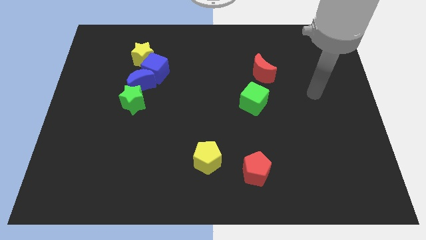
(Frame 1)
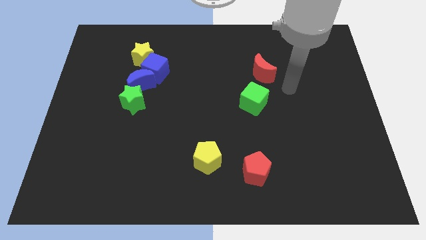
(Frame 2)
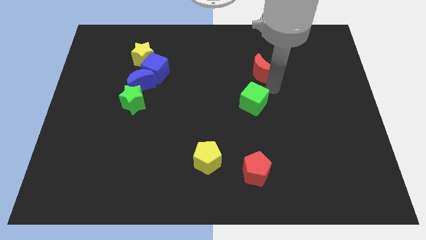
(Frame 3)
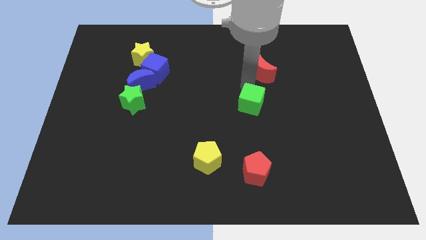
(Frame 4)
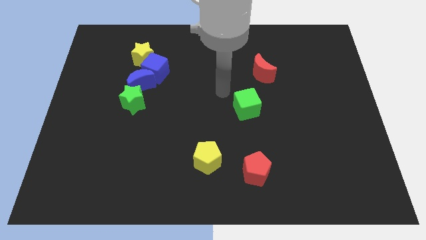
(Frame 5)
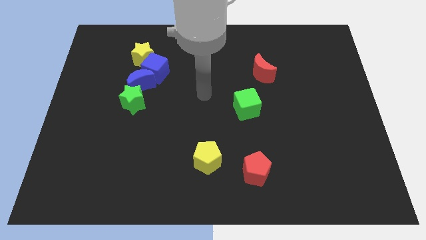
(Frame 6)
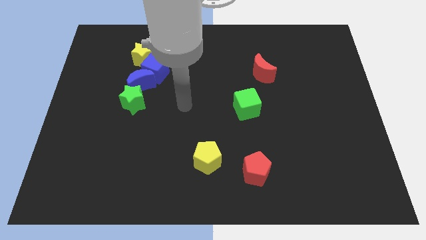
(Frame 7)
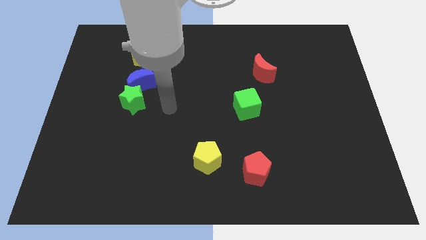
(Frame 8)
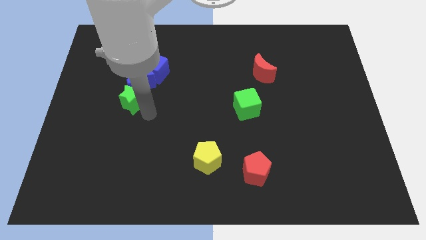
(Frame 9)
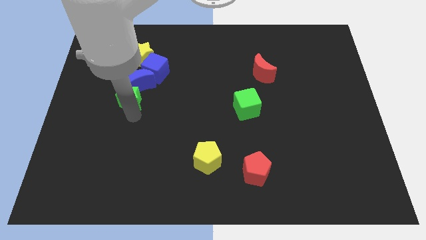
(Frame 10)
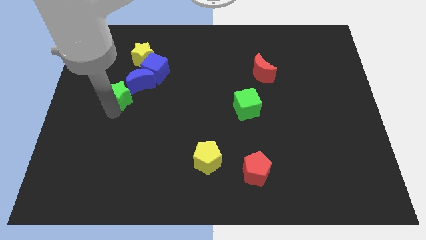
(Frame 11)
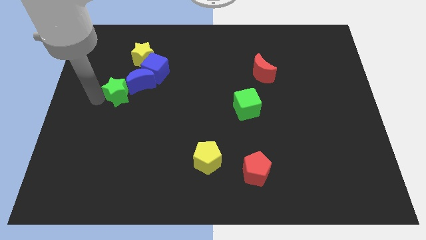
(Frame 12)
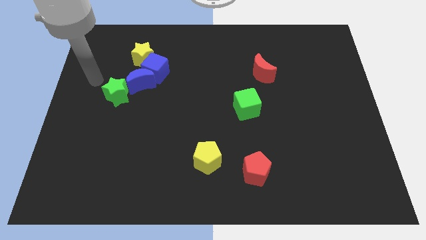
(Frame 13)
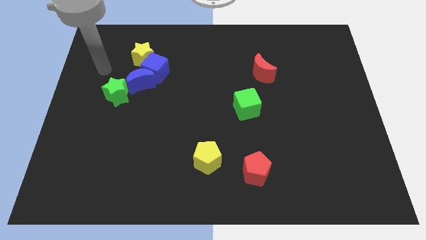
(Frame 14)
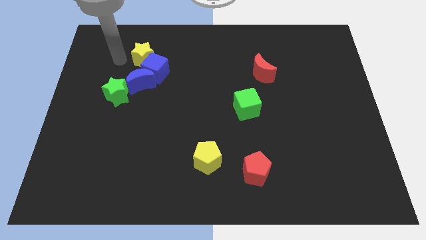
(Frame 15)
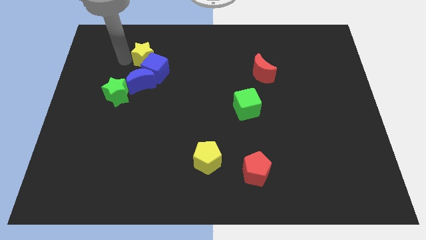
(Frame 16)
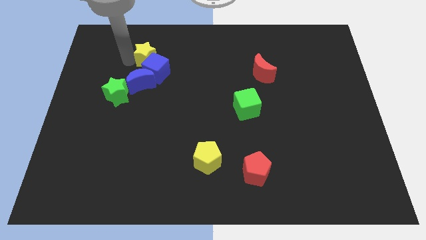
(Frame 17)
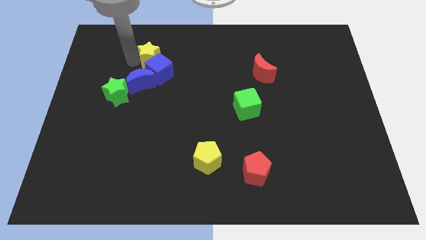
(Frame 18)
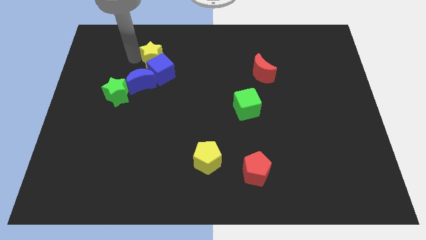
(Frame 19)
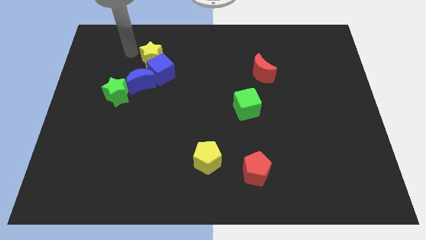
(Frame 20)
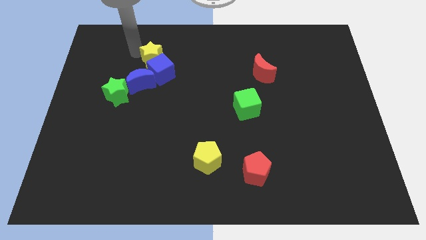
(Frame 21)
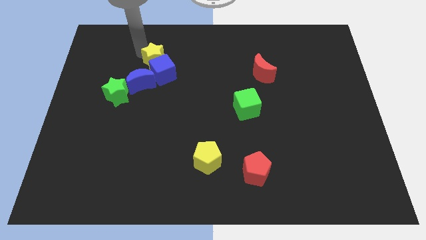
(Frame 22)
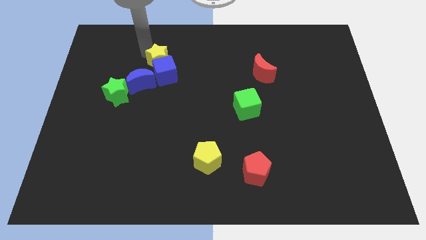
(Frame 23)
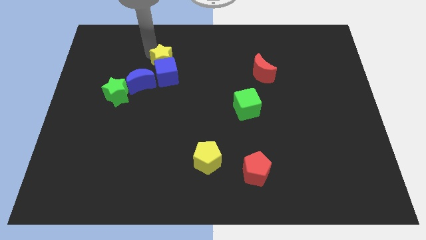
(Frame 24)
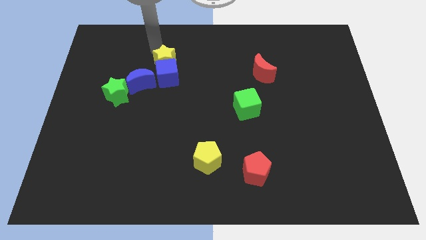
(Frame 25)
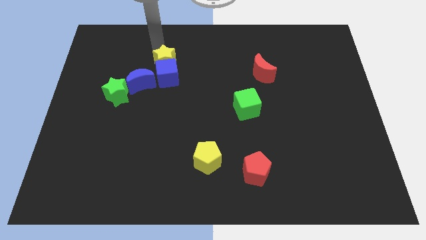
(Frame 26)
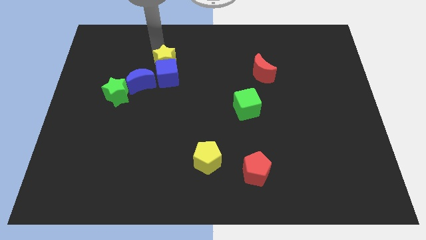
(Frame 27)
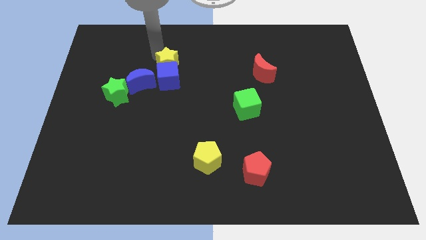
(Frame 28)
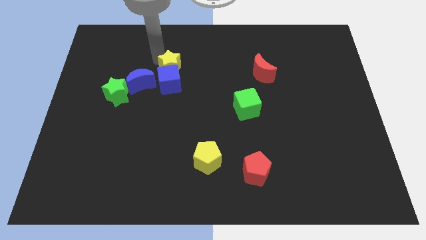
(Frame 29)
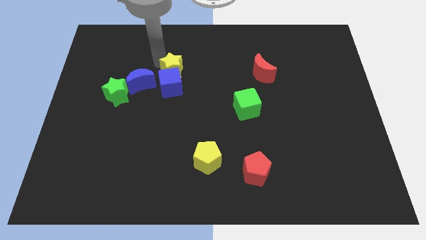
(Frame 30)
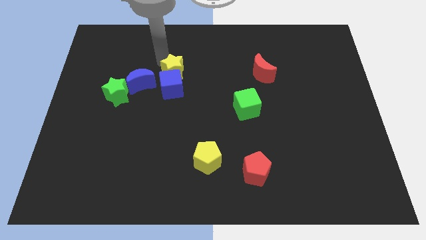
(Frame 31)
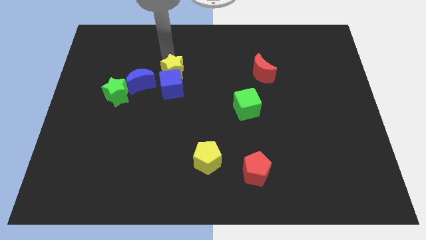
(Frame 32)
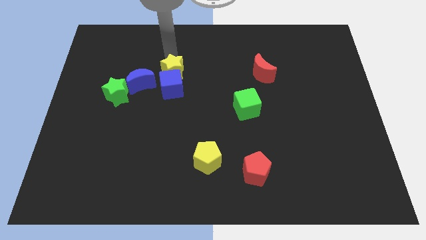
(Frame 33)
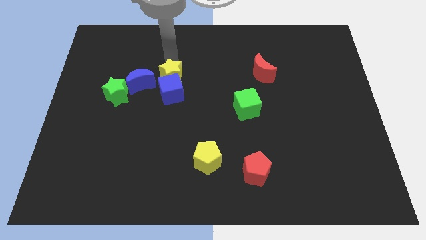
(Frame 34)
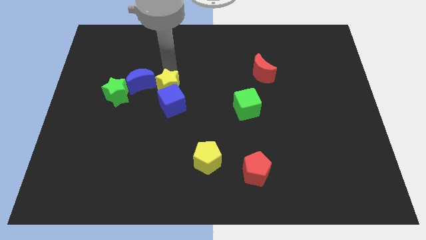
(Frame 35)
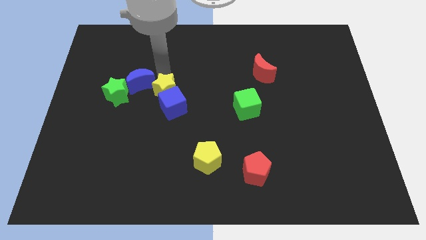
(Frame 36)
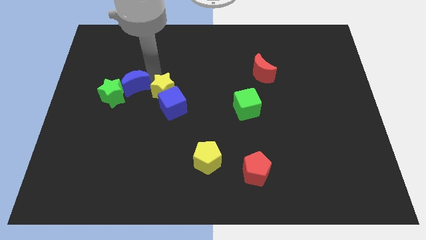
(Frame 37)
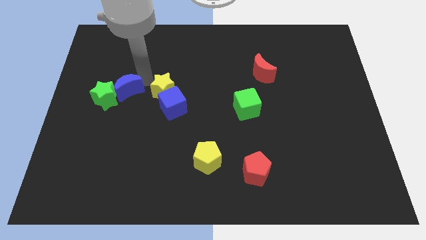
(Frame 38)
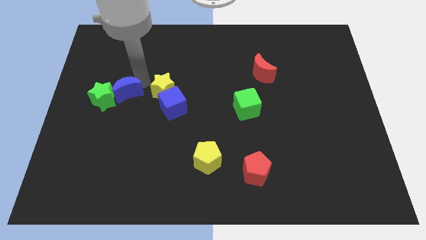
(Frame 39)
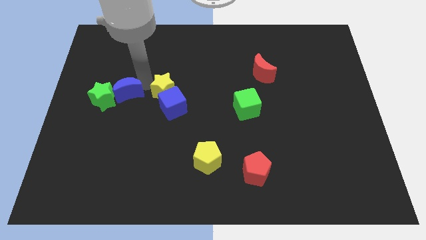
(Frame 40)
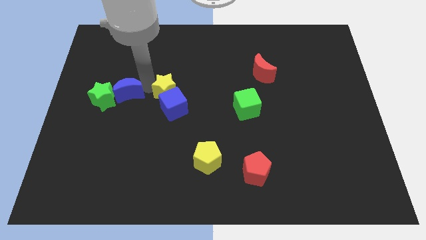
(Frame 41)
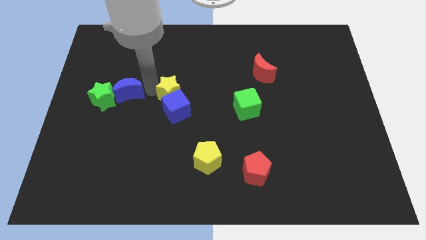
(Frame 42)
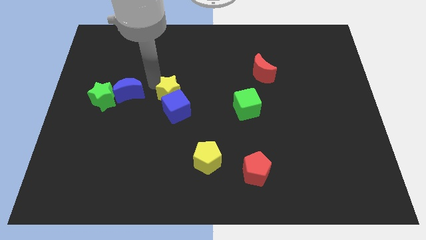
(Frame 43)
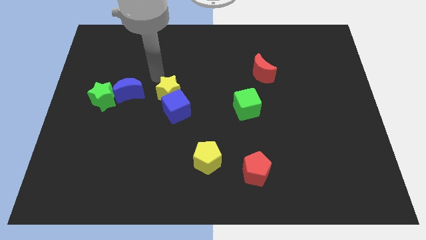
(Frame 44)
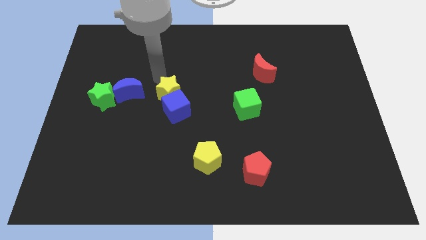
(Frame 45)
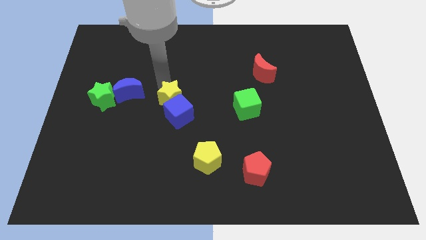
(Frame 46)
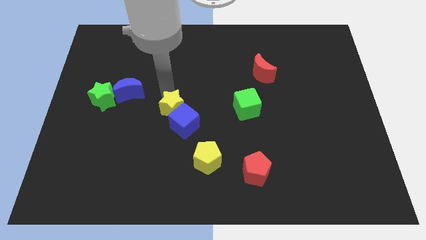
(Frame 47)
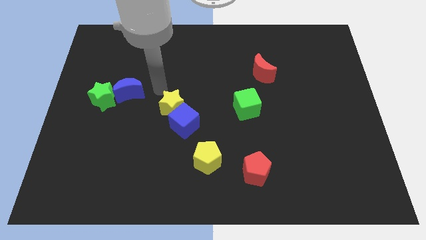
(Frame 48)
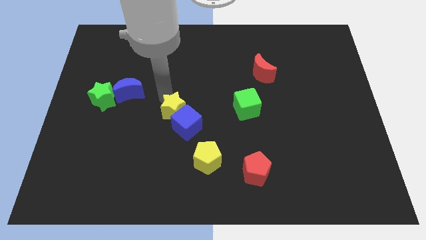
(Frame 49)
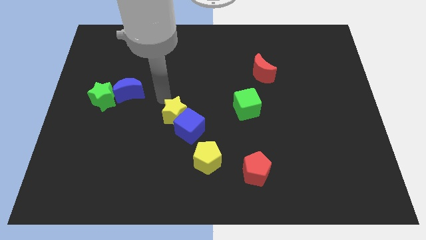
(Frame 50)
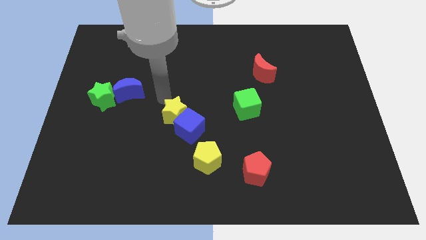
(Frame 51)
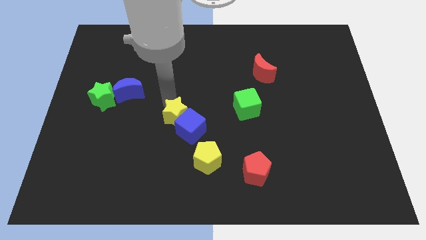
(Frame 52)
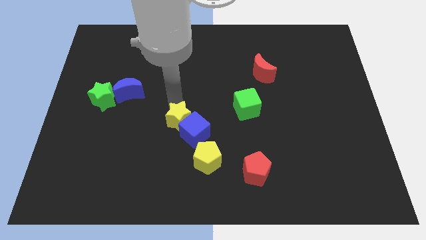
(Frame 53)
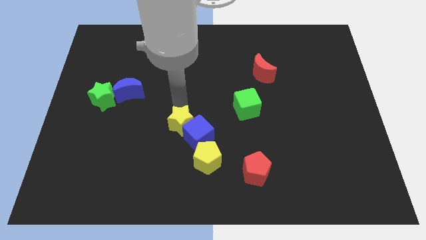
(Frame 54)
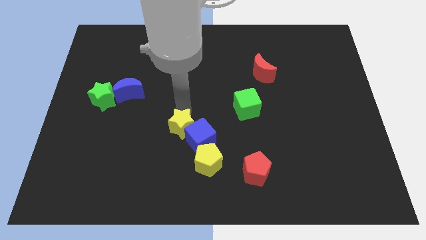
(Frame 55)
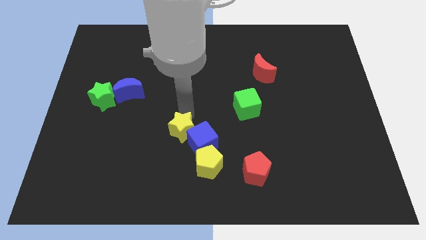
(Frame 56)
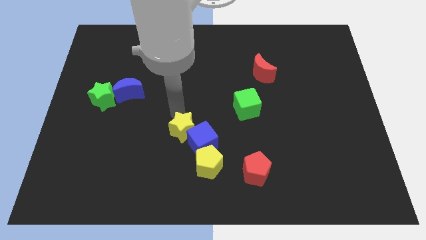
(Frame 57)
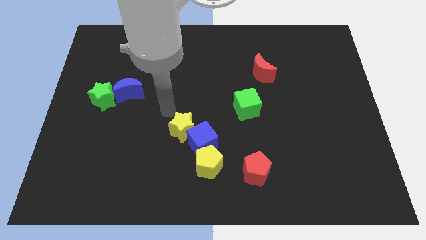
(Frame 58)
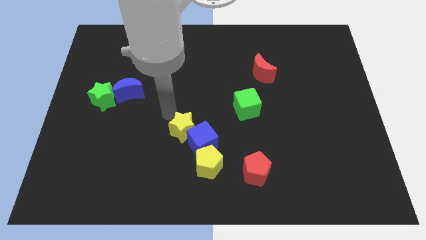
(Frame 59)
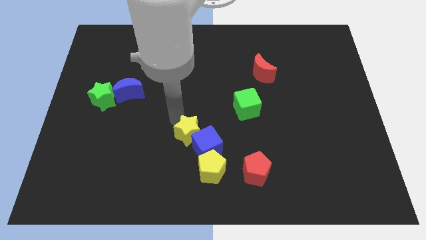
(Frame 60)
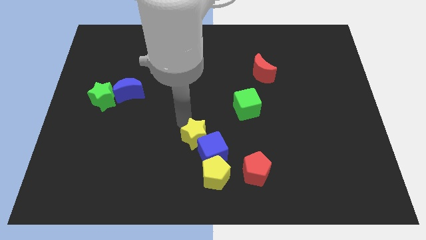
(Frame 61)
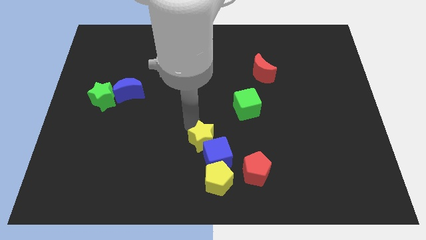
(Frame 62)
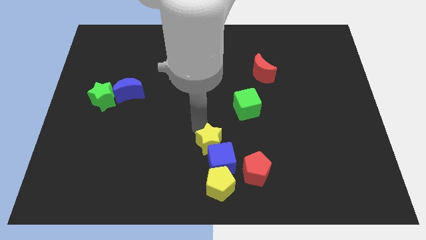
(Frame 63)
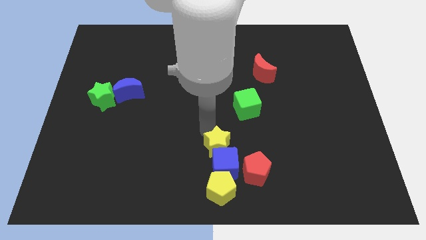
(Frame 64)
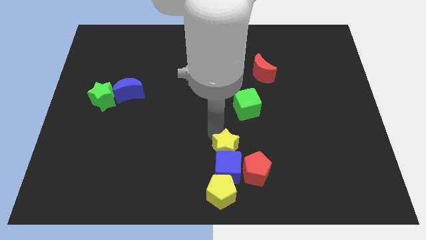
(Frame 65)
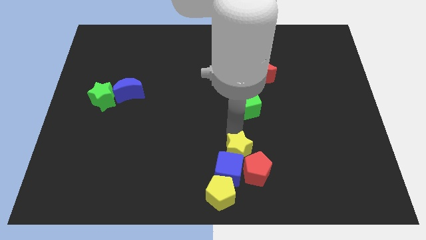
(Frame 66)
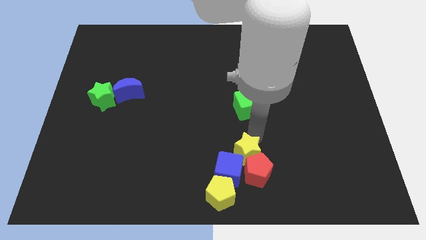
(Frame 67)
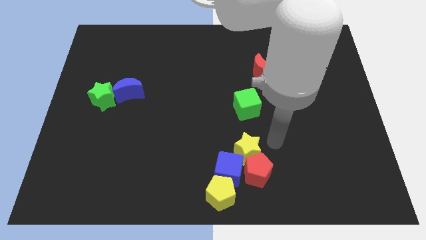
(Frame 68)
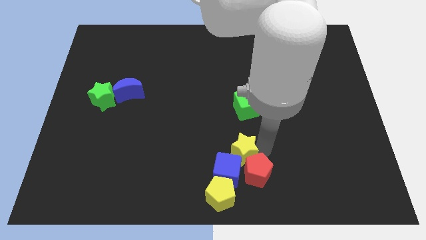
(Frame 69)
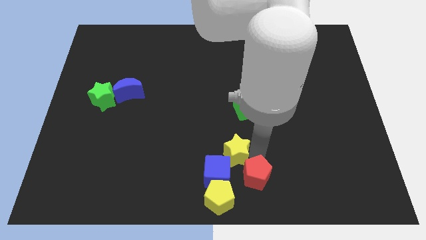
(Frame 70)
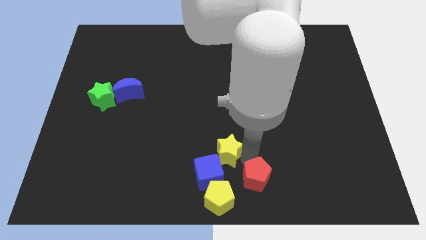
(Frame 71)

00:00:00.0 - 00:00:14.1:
slide the yellow star to the bottom
